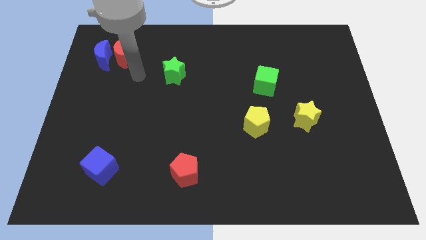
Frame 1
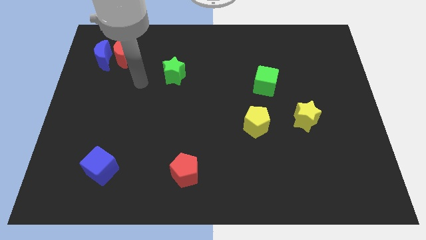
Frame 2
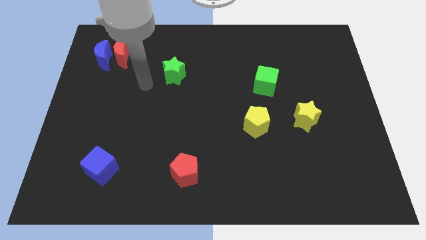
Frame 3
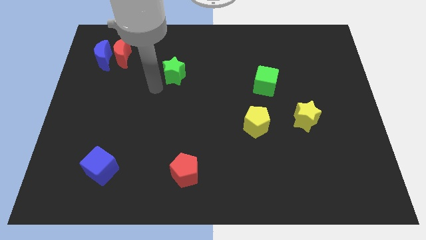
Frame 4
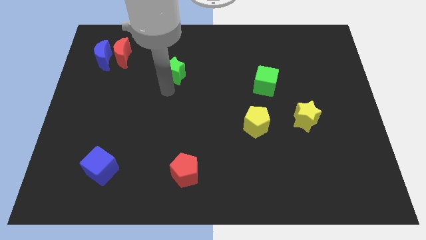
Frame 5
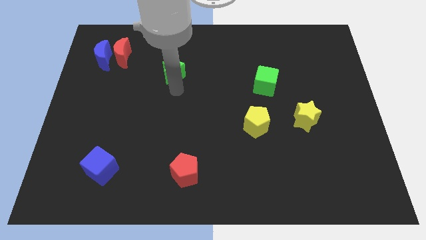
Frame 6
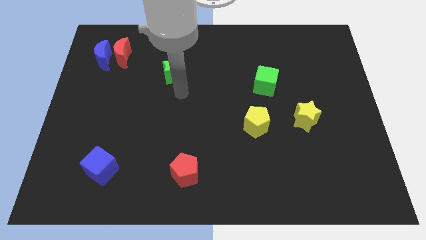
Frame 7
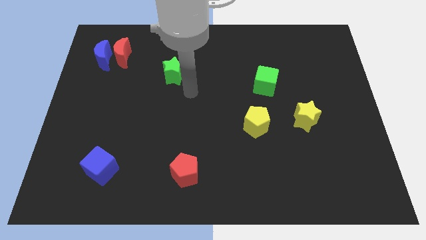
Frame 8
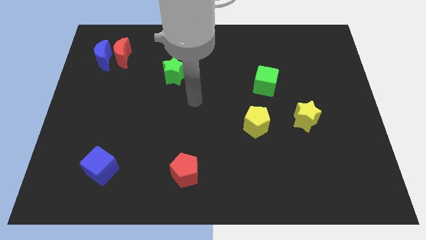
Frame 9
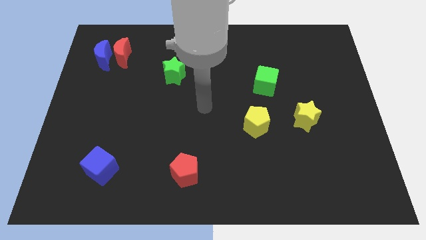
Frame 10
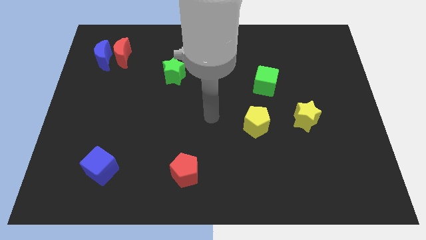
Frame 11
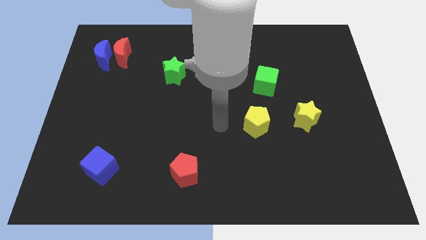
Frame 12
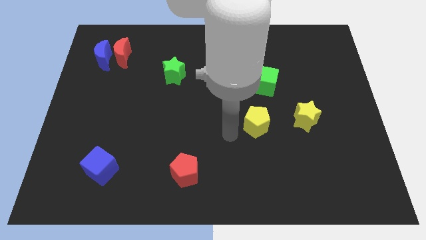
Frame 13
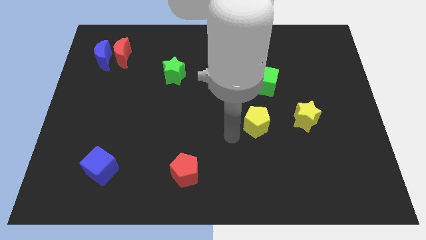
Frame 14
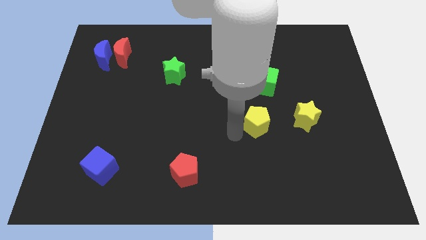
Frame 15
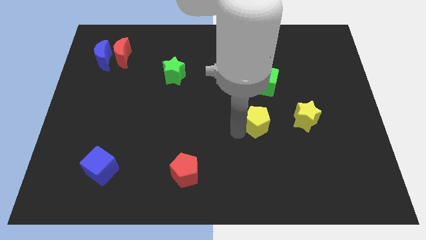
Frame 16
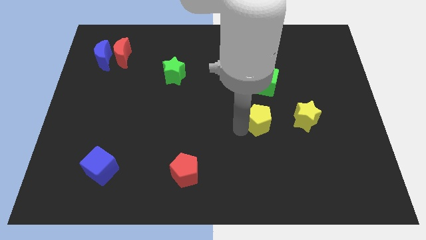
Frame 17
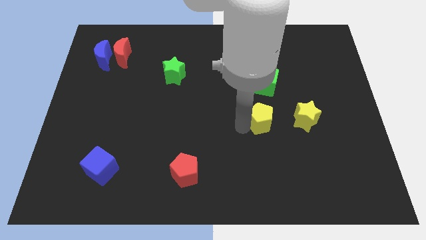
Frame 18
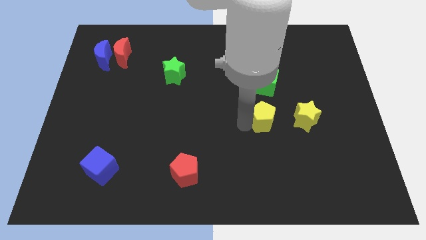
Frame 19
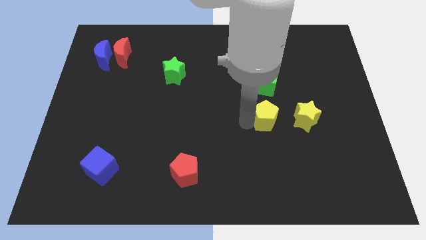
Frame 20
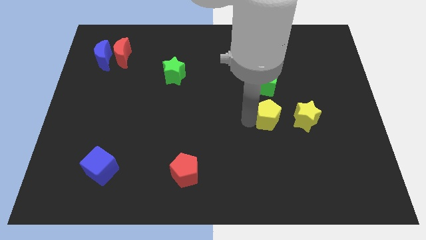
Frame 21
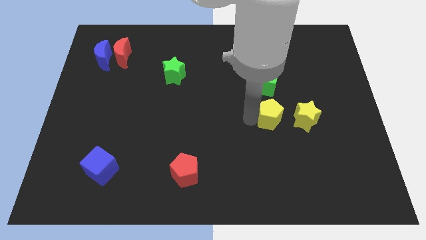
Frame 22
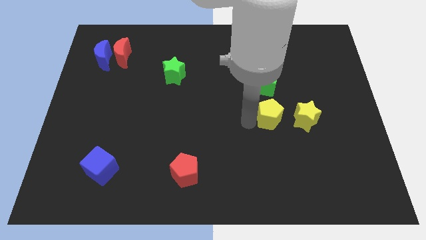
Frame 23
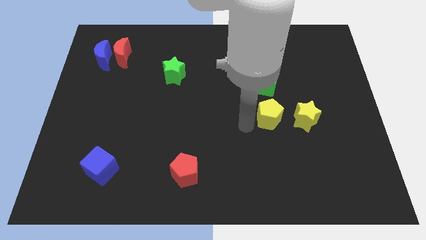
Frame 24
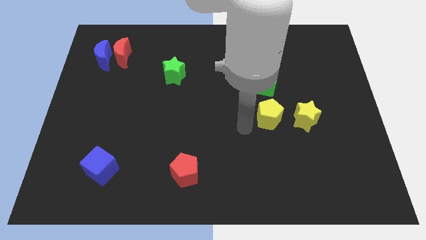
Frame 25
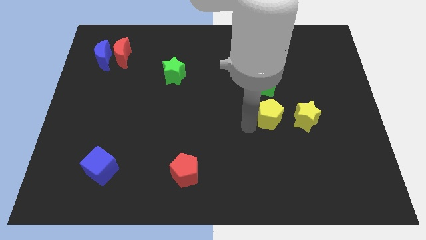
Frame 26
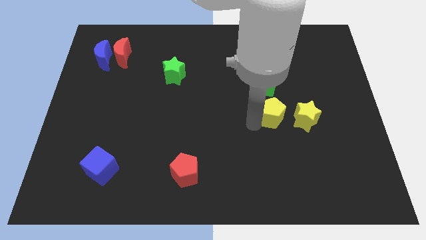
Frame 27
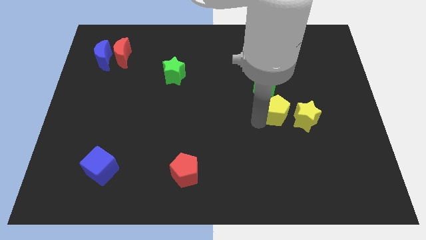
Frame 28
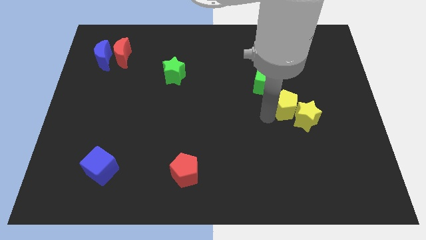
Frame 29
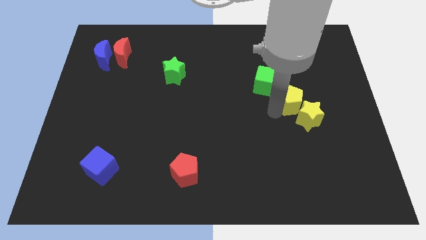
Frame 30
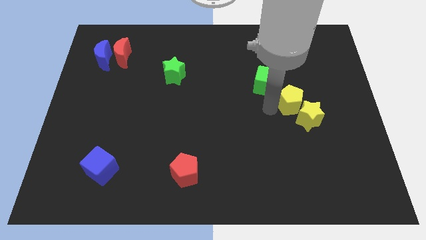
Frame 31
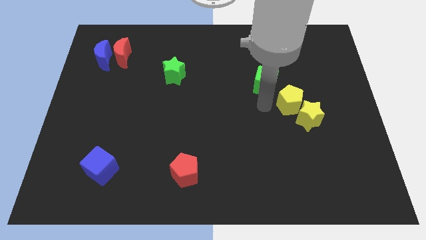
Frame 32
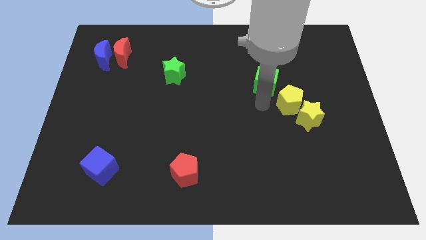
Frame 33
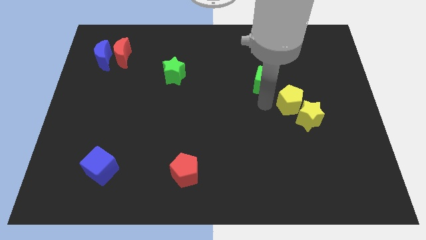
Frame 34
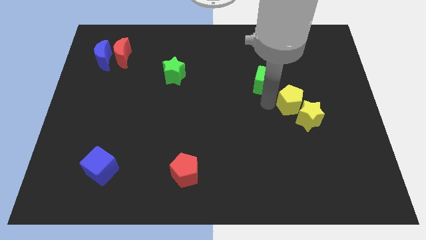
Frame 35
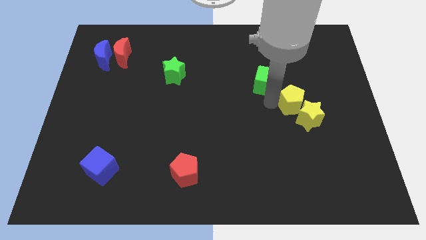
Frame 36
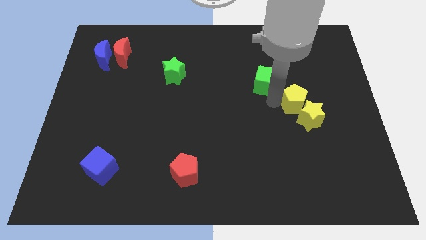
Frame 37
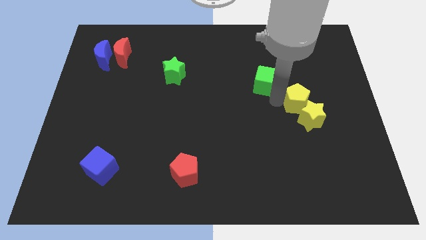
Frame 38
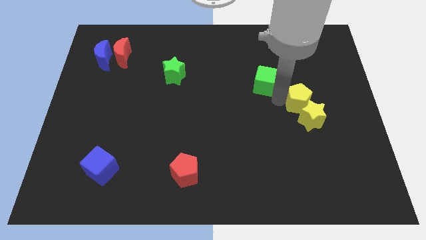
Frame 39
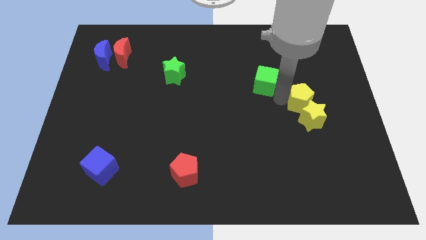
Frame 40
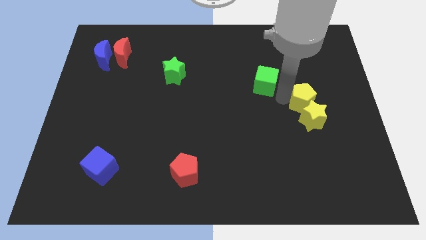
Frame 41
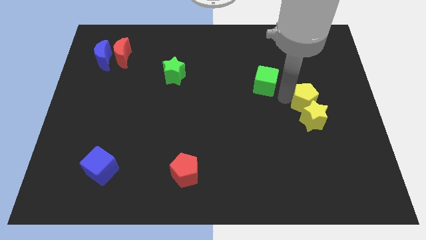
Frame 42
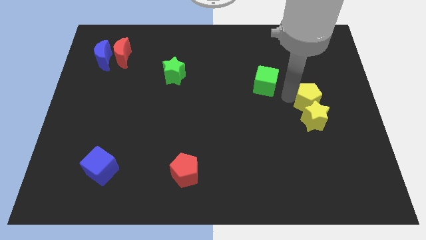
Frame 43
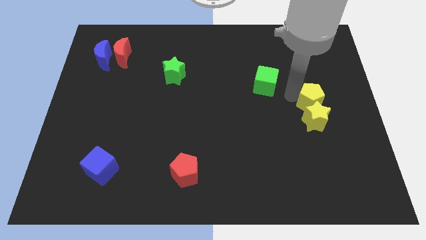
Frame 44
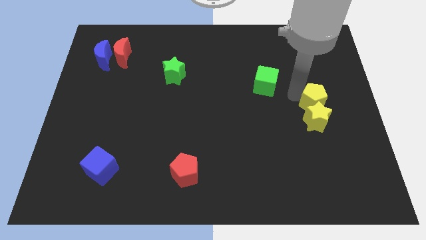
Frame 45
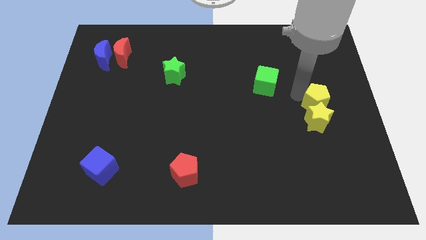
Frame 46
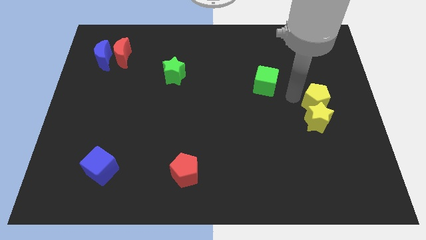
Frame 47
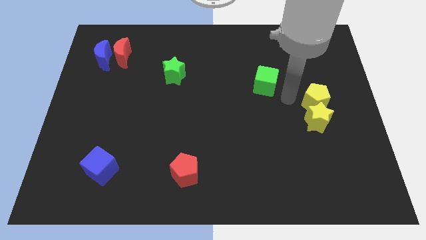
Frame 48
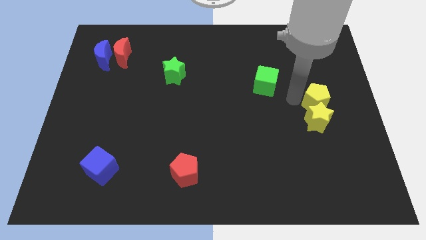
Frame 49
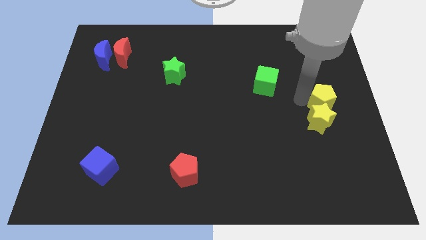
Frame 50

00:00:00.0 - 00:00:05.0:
move the yellow pentagon to the right side

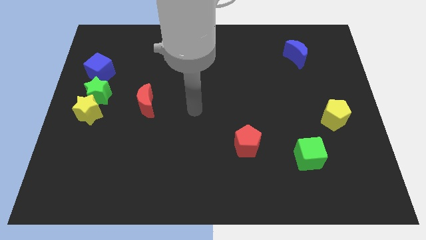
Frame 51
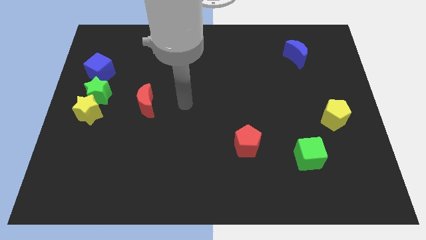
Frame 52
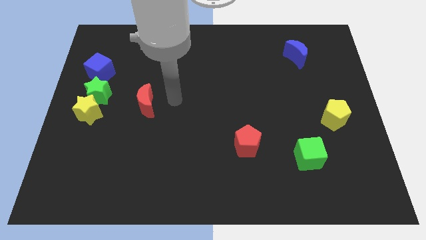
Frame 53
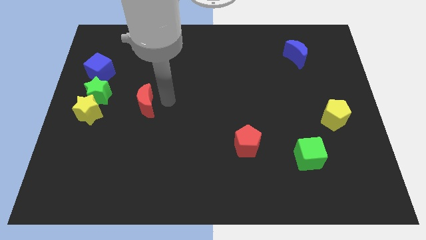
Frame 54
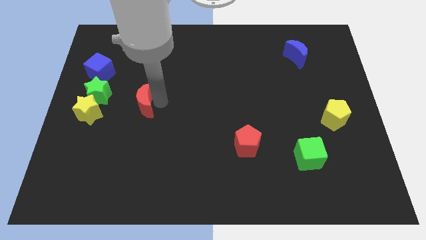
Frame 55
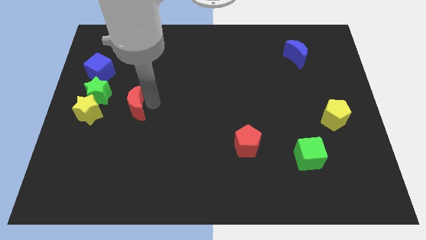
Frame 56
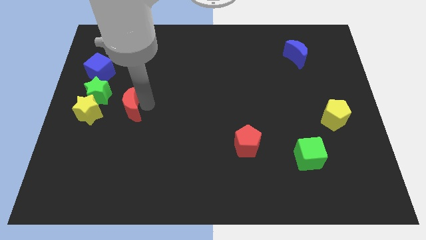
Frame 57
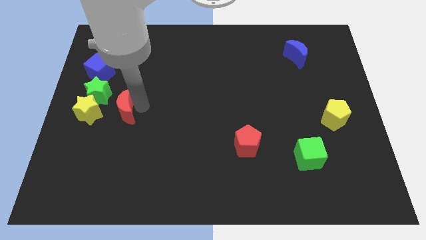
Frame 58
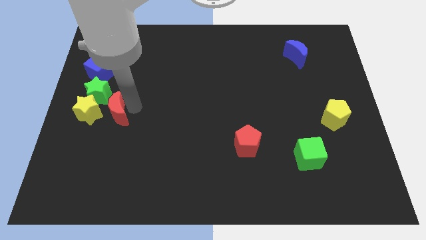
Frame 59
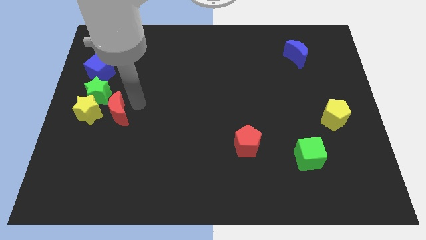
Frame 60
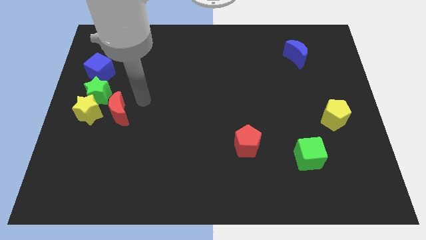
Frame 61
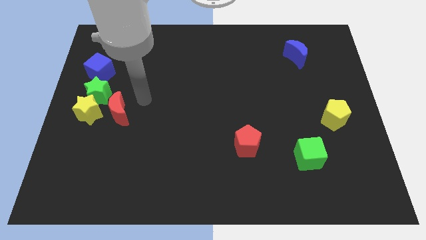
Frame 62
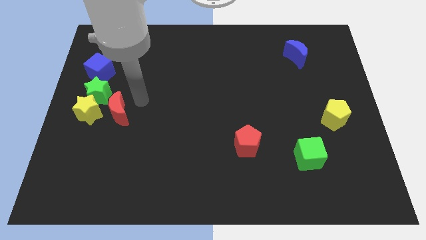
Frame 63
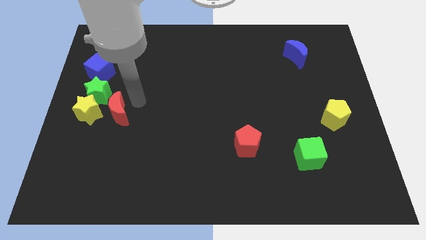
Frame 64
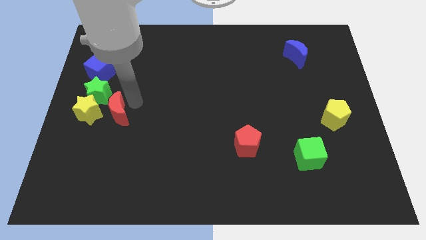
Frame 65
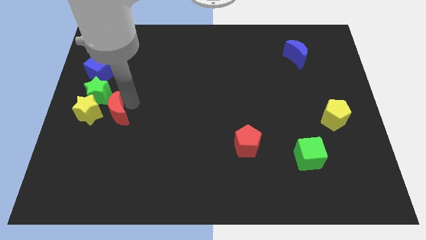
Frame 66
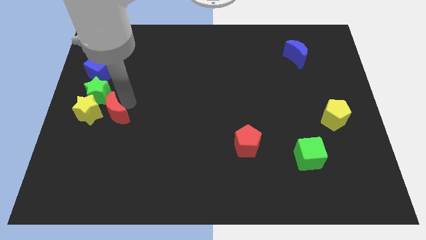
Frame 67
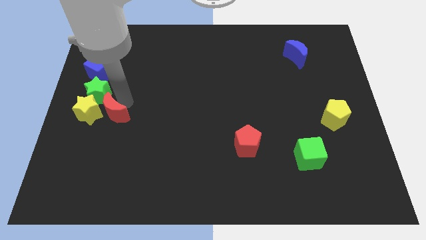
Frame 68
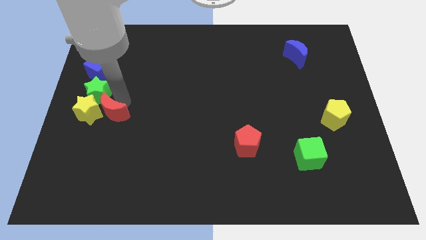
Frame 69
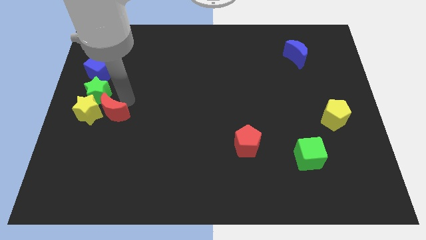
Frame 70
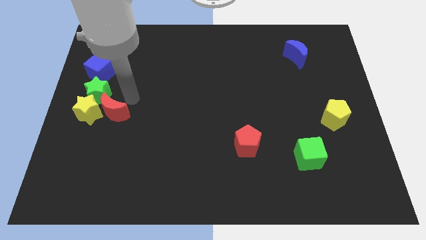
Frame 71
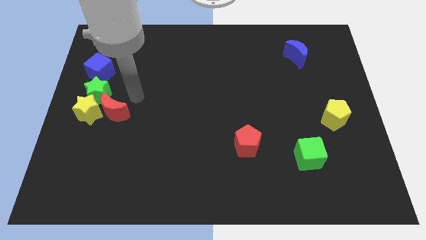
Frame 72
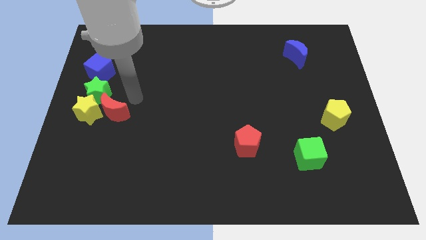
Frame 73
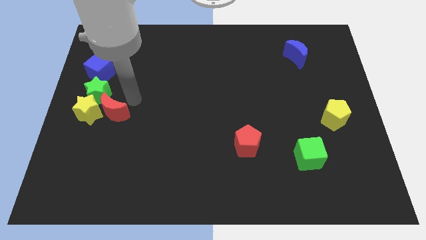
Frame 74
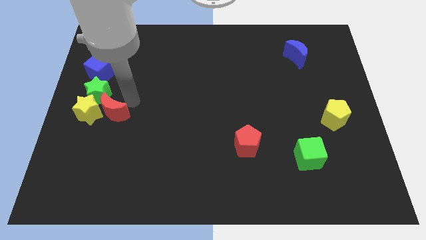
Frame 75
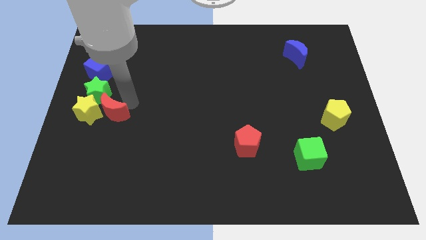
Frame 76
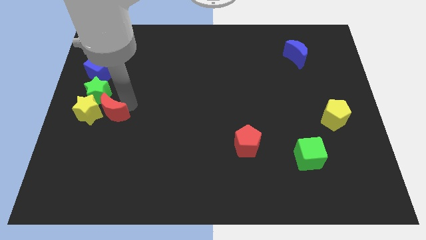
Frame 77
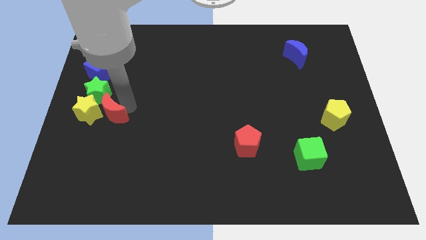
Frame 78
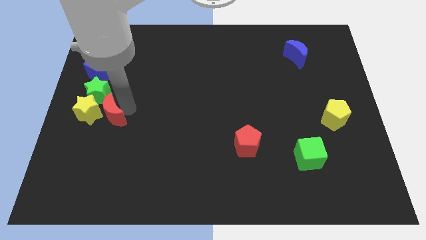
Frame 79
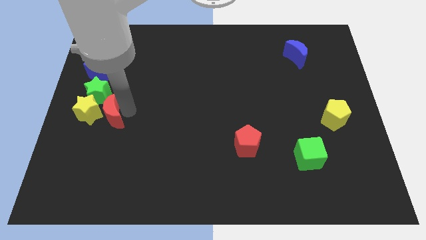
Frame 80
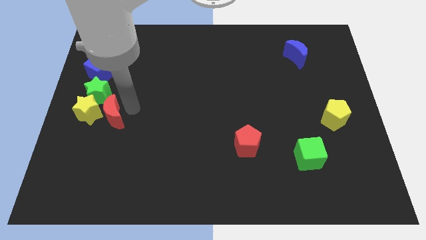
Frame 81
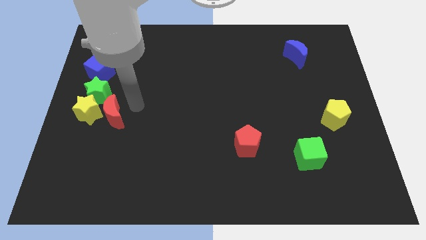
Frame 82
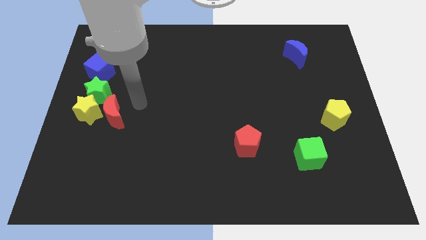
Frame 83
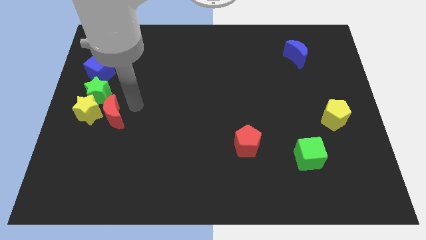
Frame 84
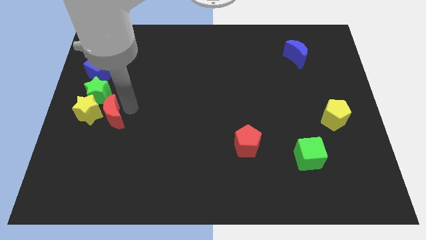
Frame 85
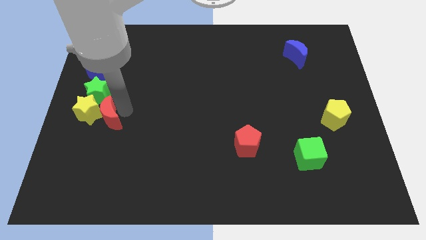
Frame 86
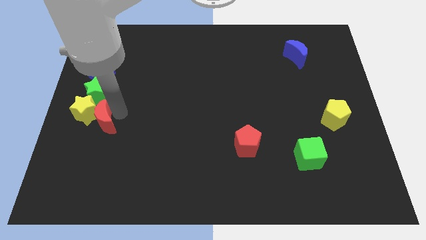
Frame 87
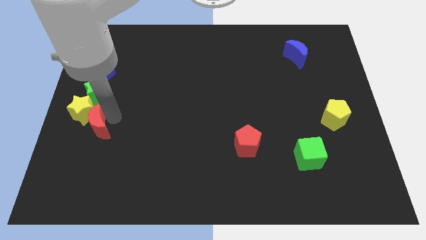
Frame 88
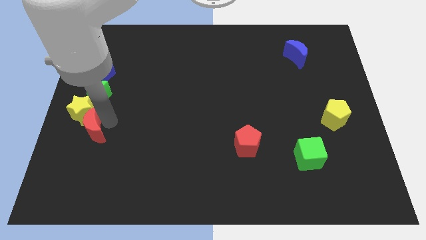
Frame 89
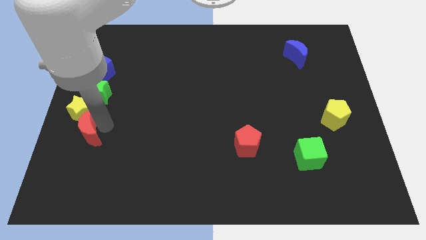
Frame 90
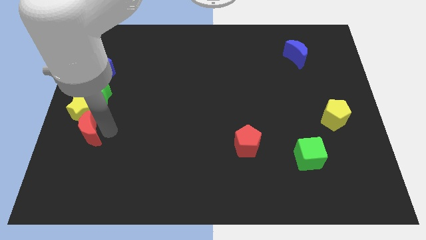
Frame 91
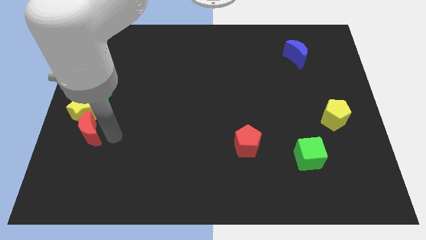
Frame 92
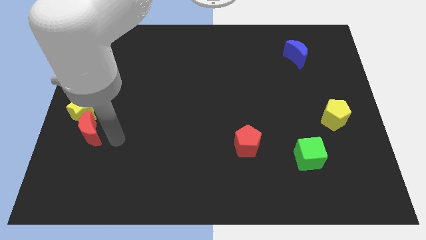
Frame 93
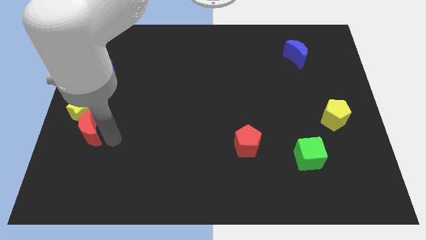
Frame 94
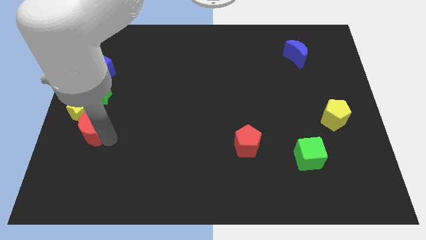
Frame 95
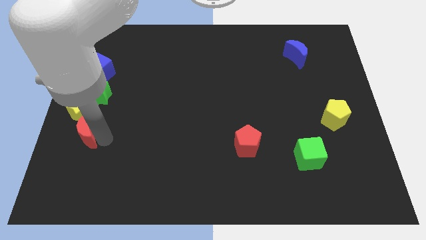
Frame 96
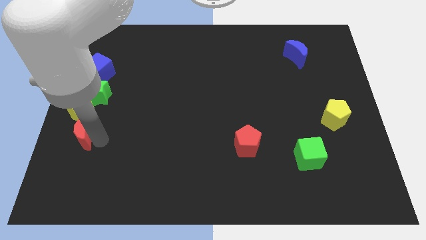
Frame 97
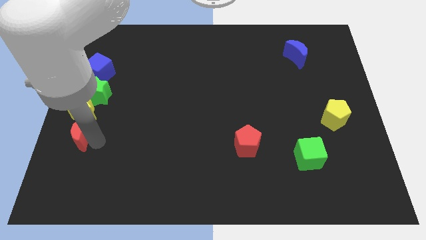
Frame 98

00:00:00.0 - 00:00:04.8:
push the red moon to the left side of the board
